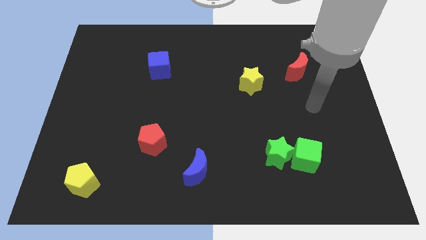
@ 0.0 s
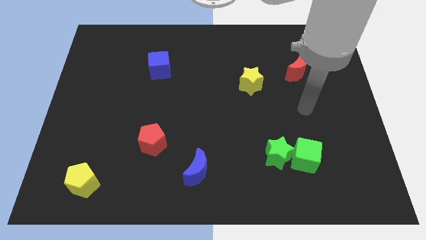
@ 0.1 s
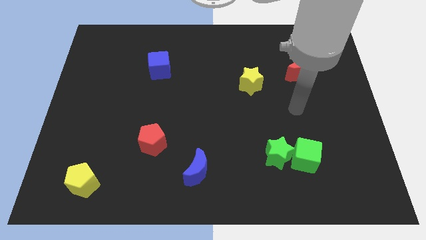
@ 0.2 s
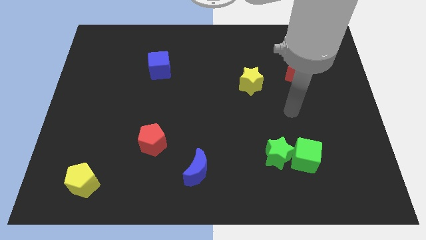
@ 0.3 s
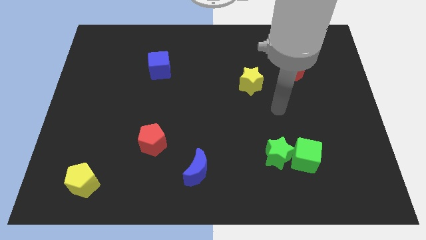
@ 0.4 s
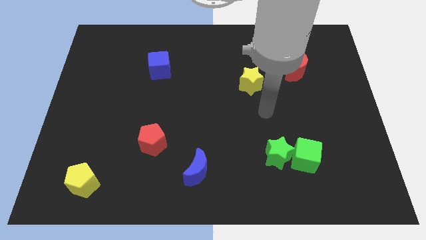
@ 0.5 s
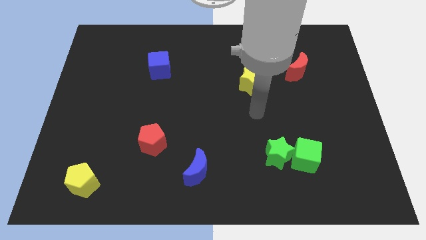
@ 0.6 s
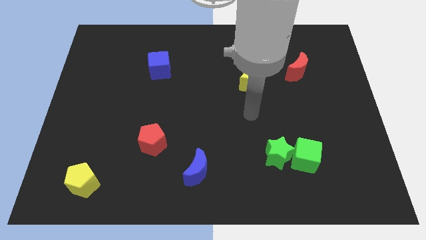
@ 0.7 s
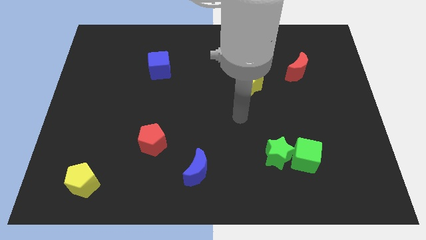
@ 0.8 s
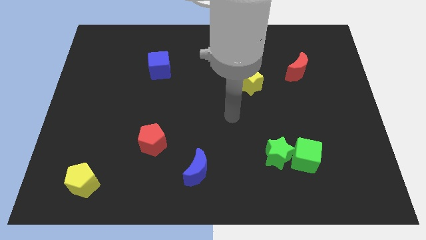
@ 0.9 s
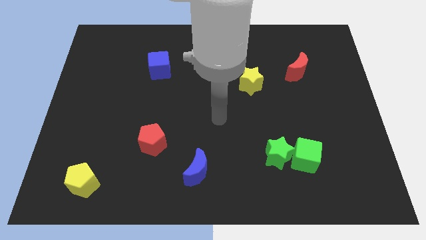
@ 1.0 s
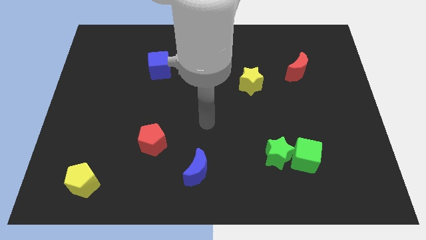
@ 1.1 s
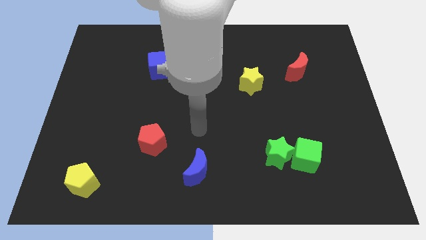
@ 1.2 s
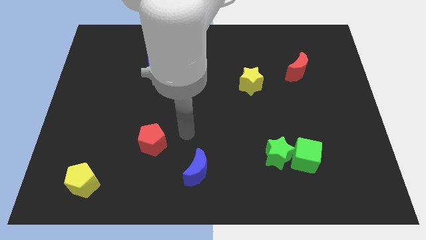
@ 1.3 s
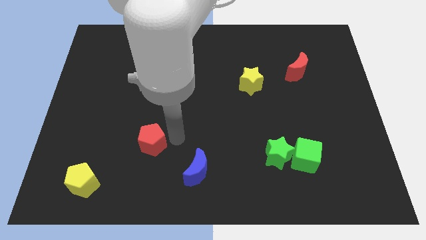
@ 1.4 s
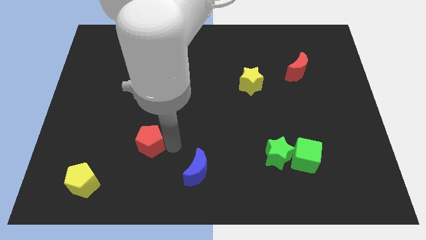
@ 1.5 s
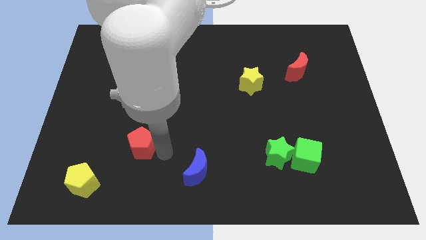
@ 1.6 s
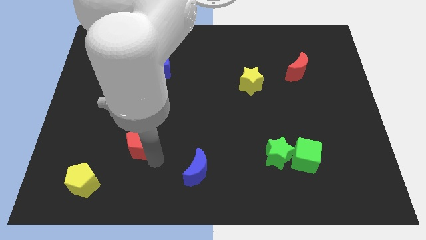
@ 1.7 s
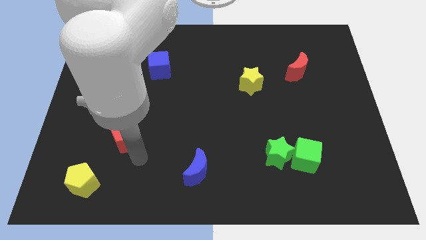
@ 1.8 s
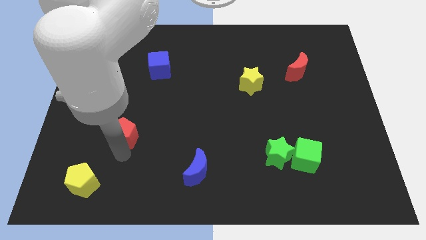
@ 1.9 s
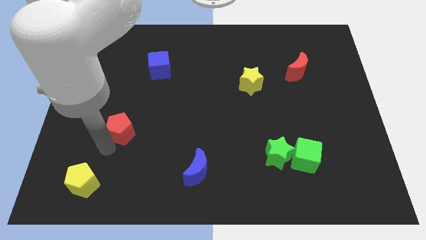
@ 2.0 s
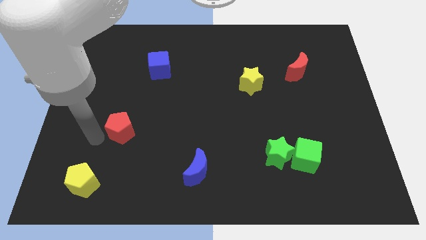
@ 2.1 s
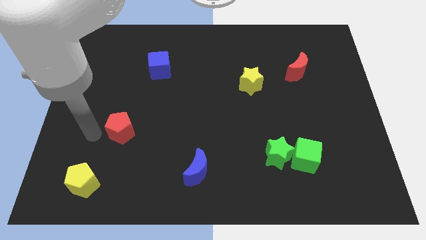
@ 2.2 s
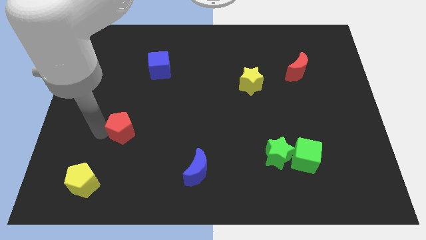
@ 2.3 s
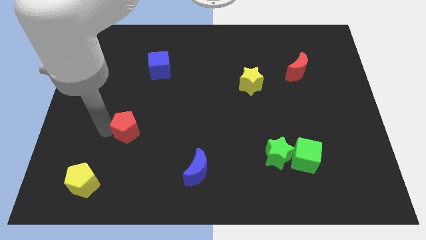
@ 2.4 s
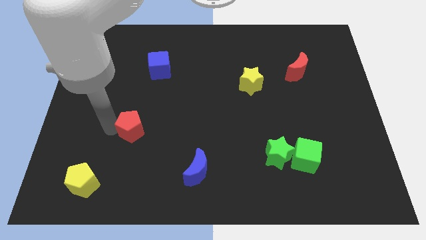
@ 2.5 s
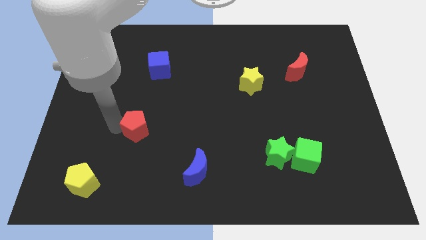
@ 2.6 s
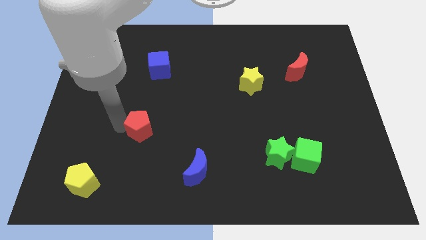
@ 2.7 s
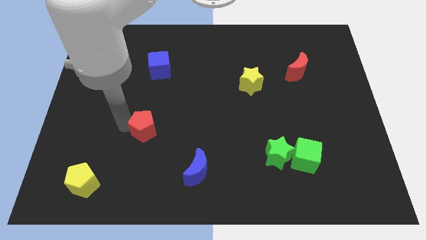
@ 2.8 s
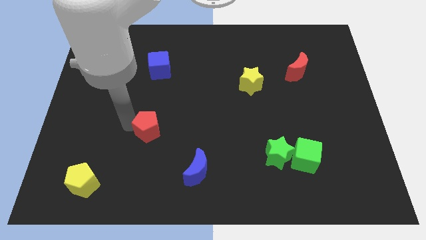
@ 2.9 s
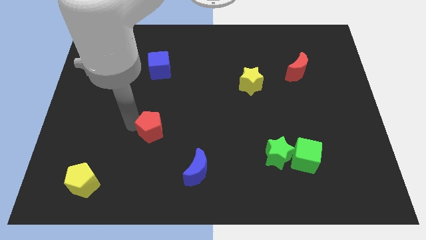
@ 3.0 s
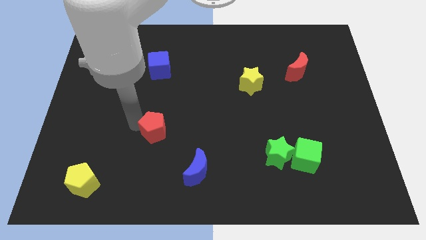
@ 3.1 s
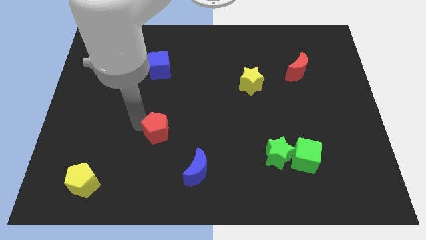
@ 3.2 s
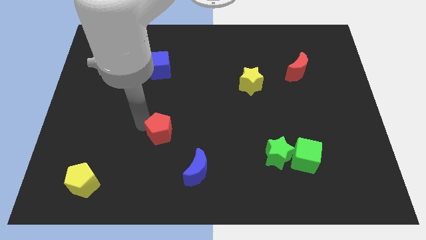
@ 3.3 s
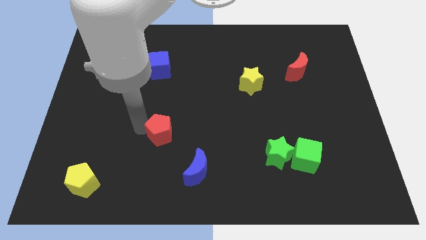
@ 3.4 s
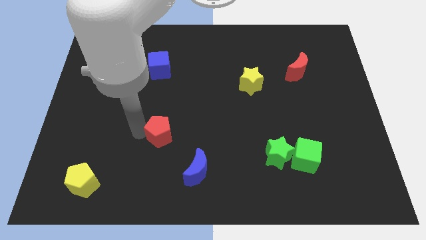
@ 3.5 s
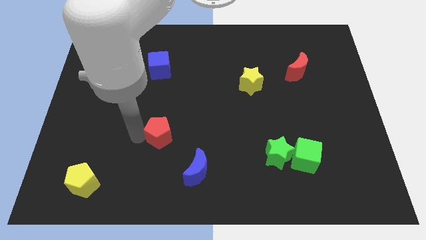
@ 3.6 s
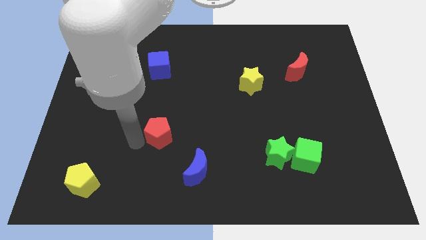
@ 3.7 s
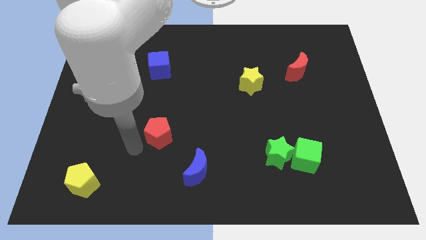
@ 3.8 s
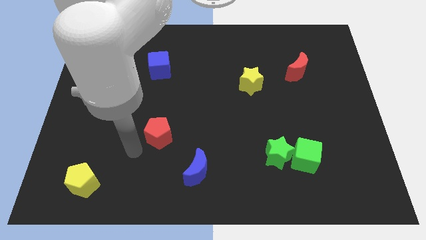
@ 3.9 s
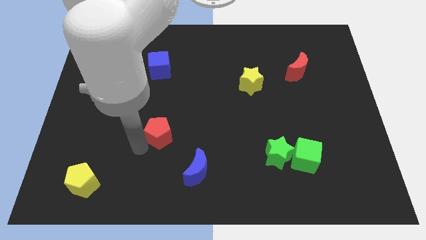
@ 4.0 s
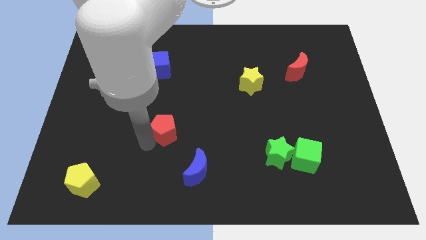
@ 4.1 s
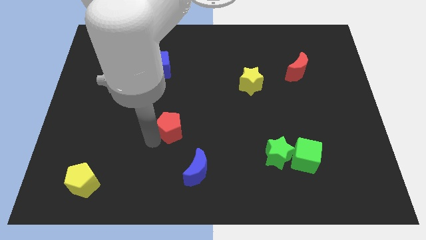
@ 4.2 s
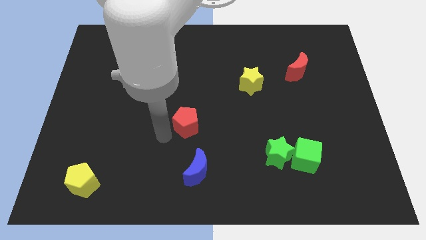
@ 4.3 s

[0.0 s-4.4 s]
move the red pentagon slightly up and to the right

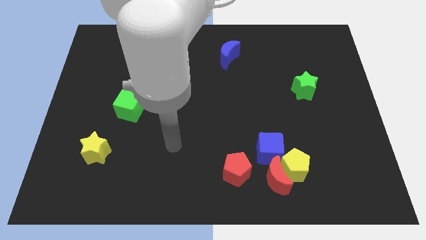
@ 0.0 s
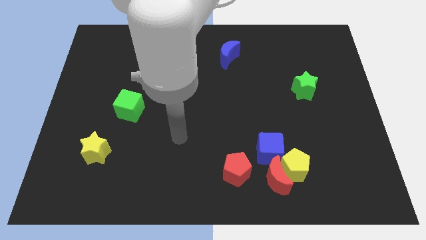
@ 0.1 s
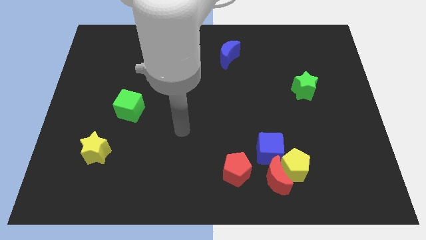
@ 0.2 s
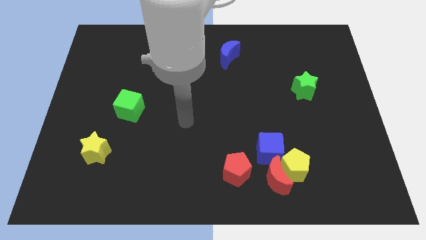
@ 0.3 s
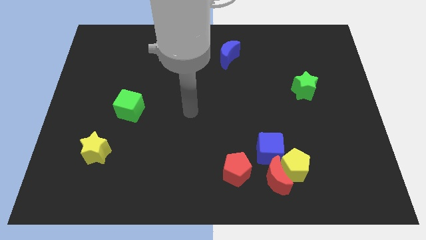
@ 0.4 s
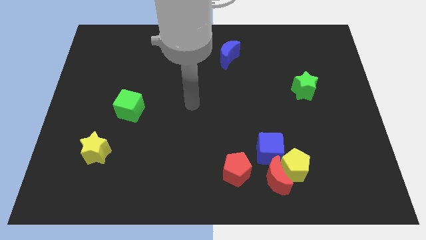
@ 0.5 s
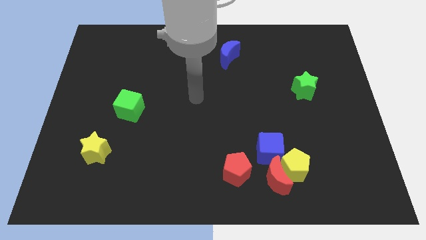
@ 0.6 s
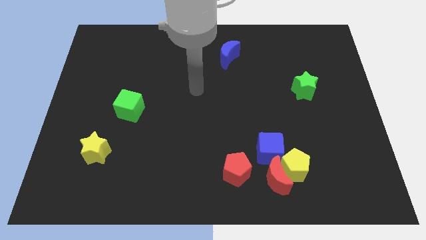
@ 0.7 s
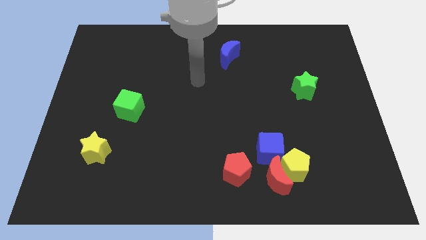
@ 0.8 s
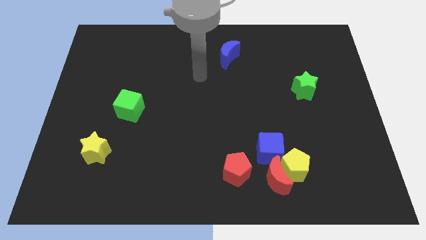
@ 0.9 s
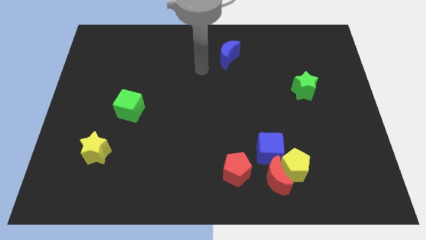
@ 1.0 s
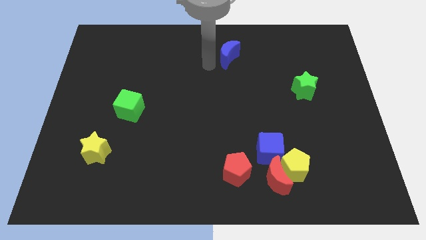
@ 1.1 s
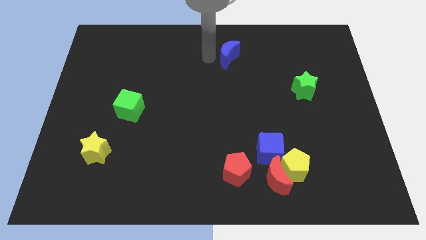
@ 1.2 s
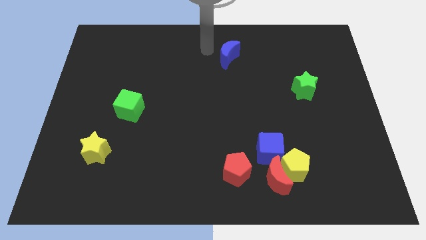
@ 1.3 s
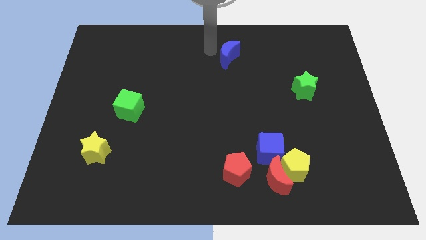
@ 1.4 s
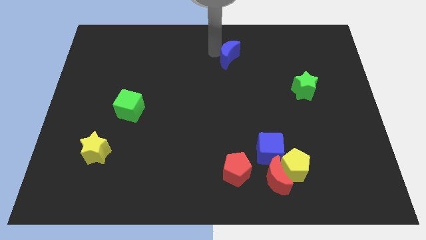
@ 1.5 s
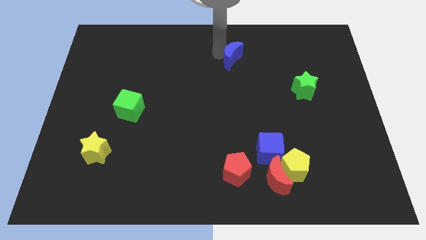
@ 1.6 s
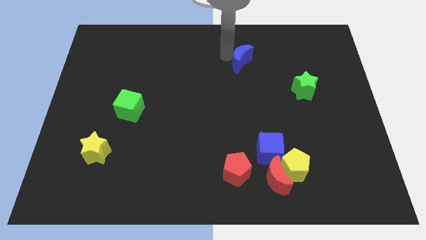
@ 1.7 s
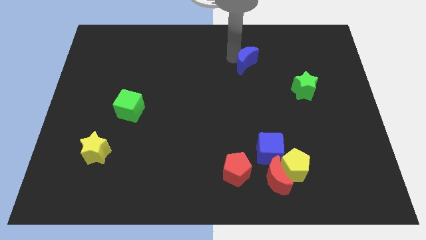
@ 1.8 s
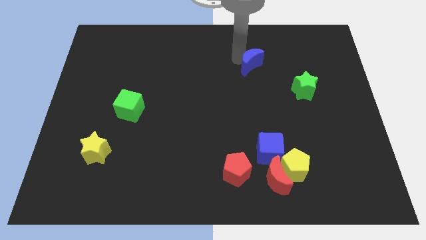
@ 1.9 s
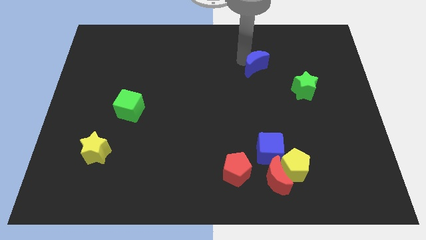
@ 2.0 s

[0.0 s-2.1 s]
push the blue moon a little downwards and then to the right

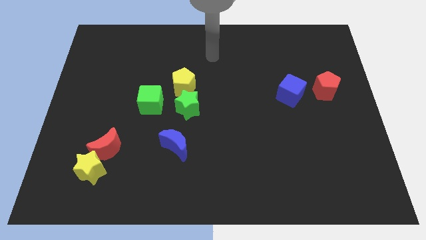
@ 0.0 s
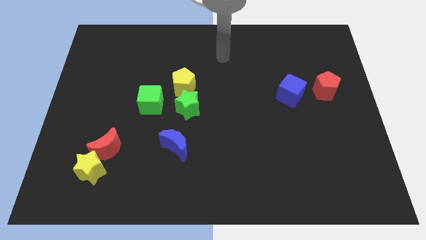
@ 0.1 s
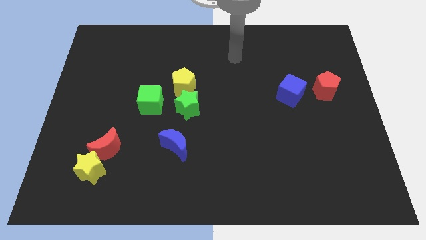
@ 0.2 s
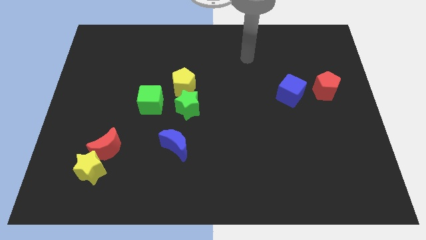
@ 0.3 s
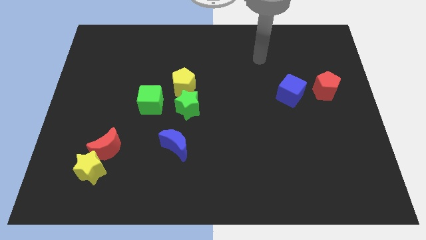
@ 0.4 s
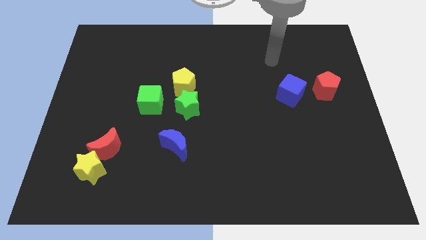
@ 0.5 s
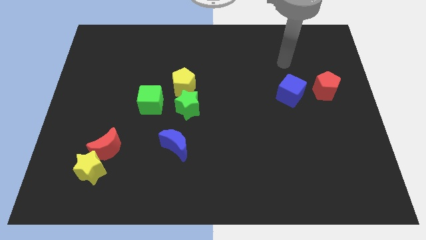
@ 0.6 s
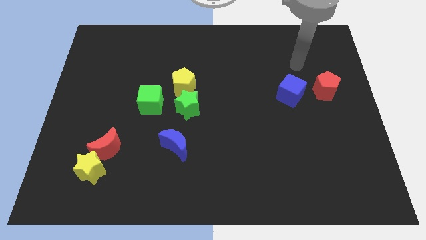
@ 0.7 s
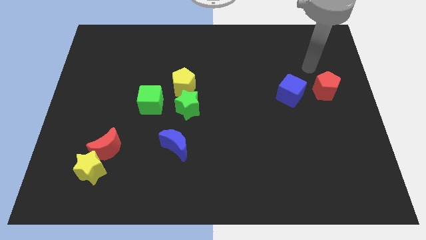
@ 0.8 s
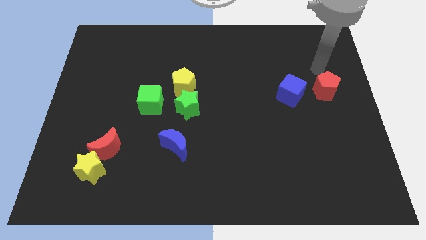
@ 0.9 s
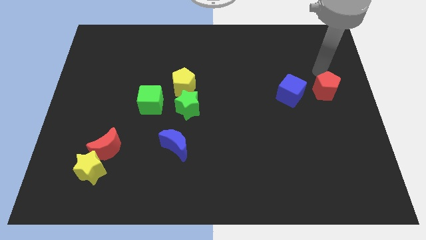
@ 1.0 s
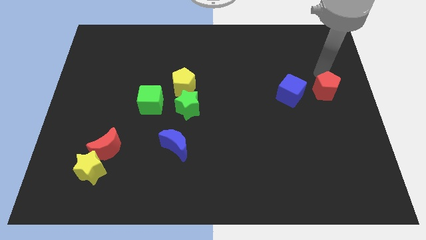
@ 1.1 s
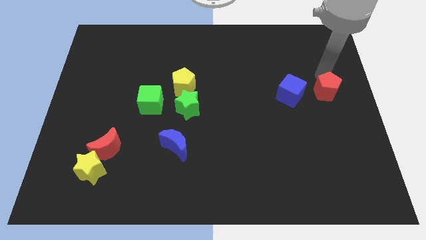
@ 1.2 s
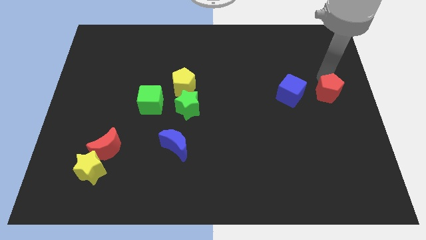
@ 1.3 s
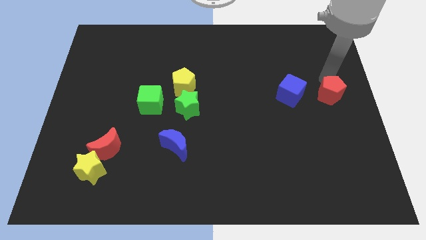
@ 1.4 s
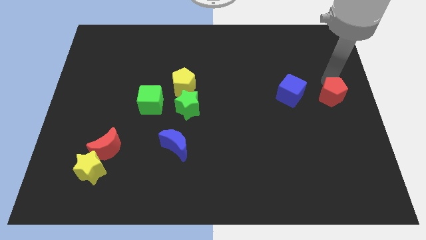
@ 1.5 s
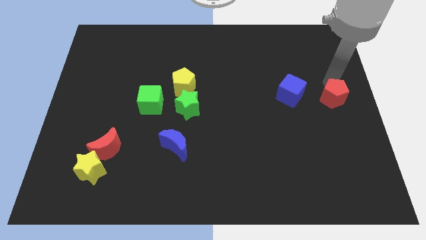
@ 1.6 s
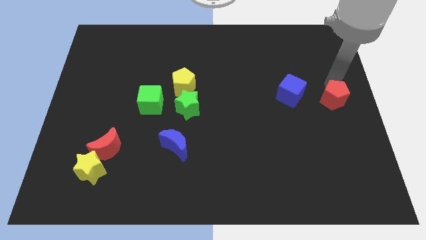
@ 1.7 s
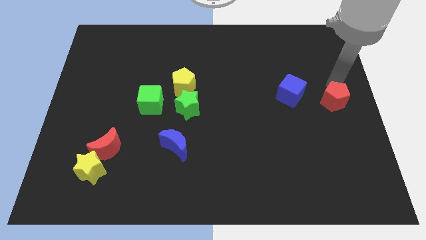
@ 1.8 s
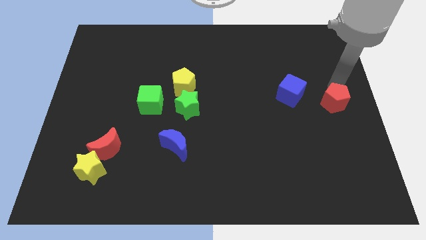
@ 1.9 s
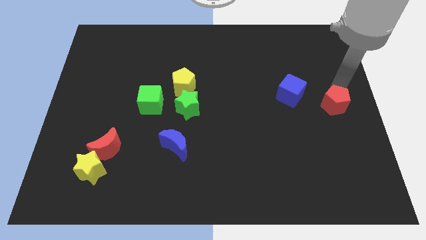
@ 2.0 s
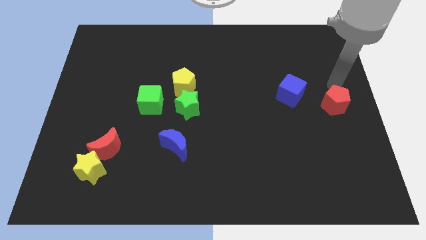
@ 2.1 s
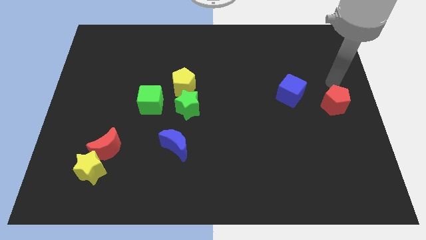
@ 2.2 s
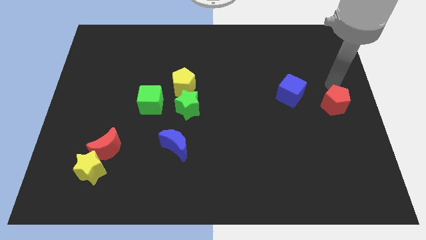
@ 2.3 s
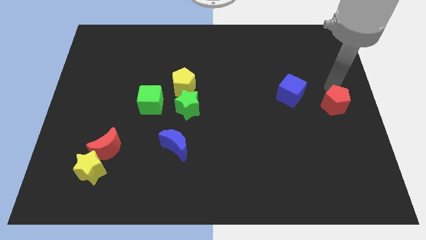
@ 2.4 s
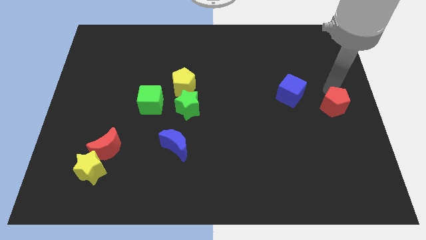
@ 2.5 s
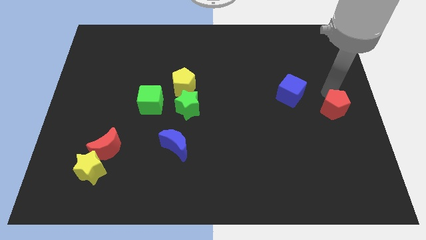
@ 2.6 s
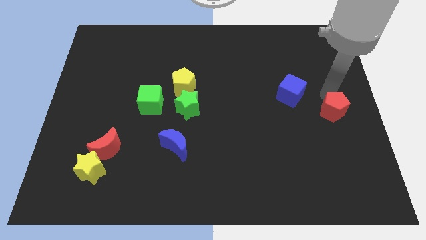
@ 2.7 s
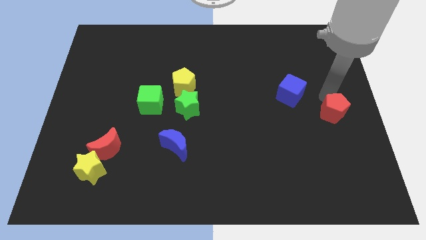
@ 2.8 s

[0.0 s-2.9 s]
move the red pentagon down somewhat
